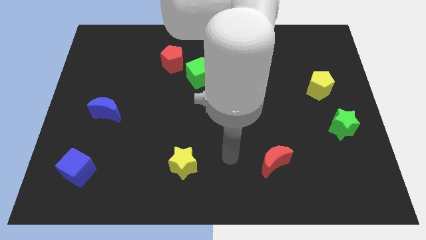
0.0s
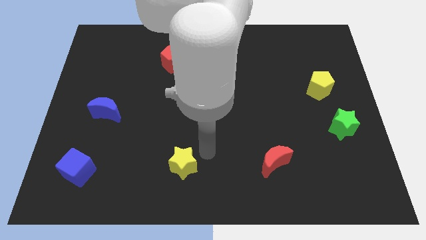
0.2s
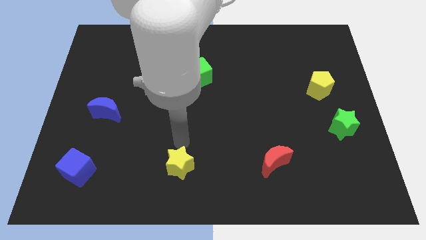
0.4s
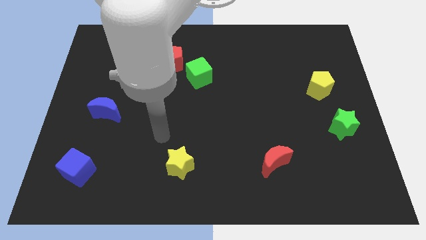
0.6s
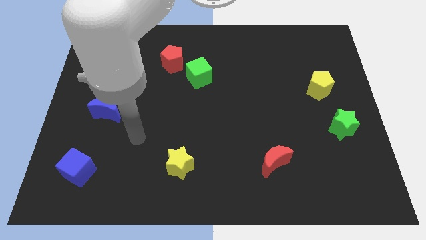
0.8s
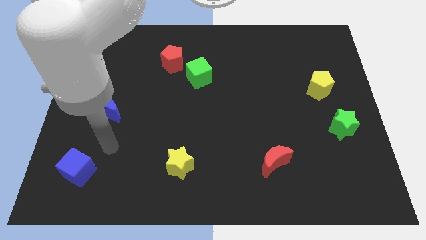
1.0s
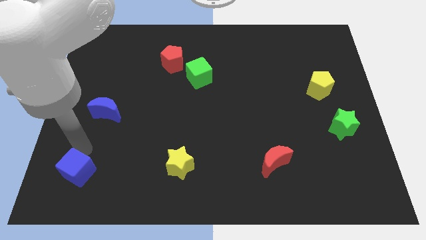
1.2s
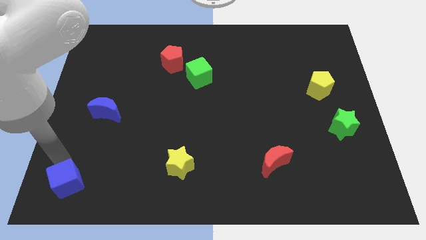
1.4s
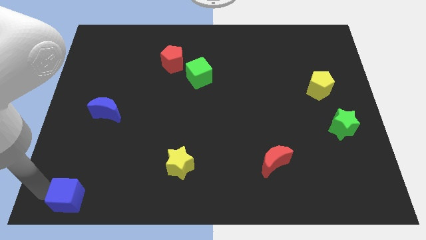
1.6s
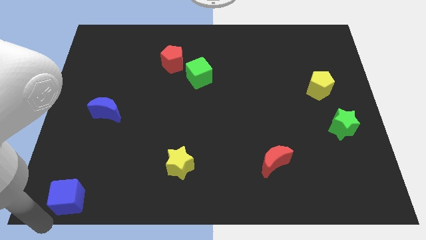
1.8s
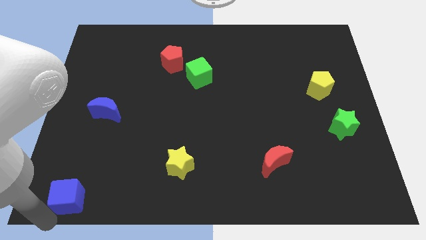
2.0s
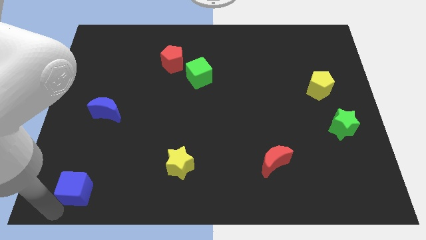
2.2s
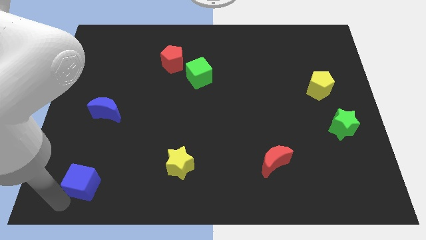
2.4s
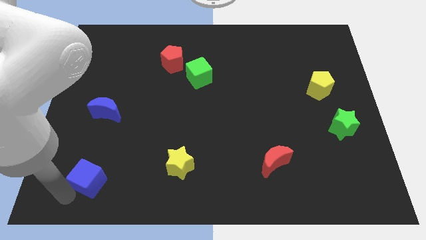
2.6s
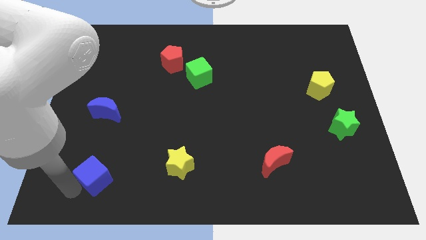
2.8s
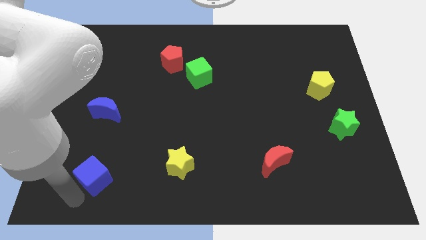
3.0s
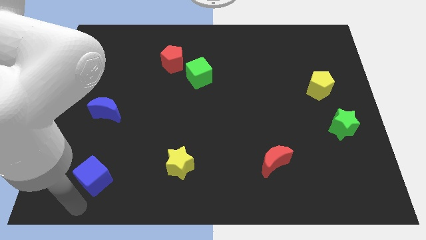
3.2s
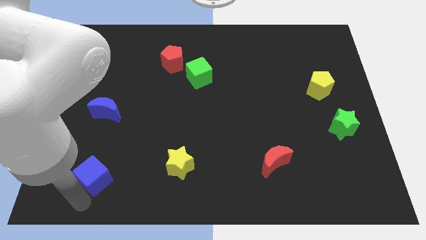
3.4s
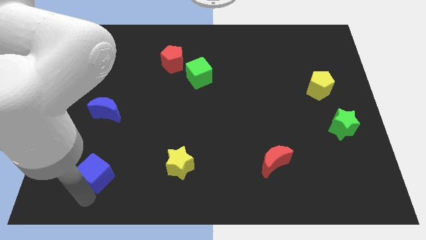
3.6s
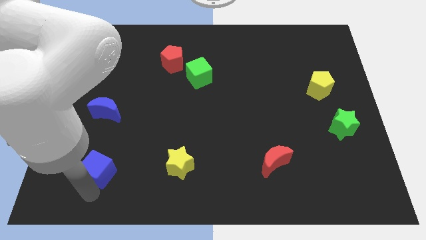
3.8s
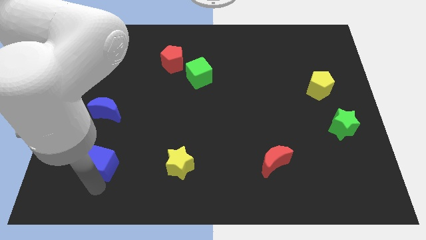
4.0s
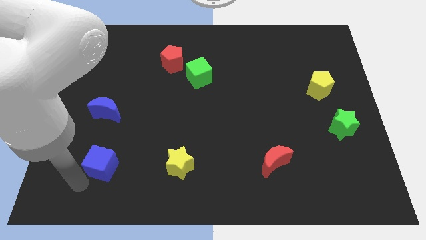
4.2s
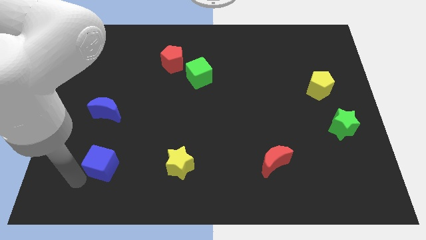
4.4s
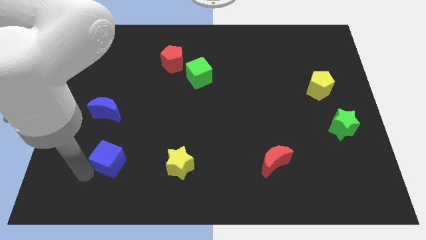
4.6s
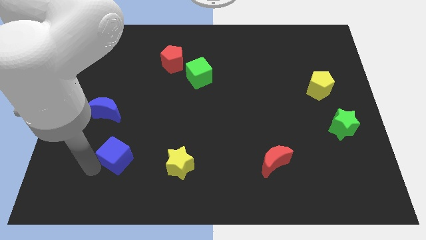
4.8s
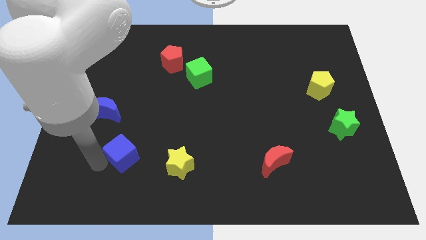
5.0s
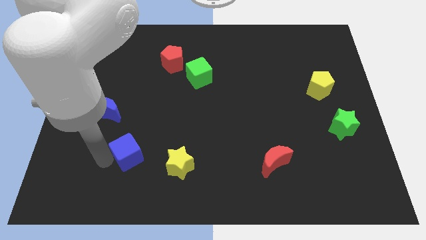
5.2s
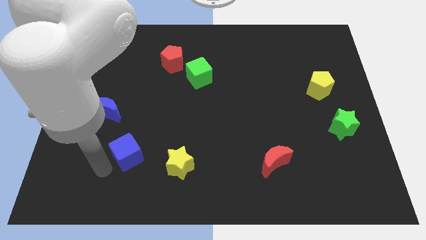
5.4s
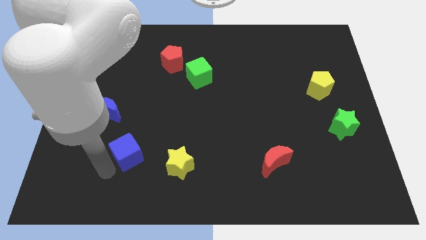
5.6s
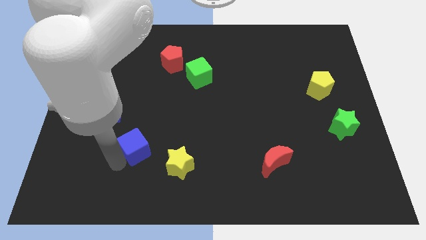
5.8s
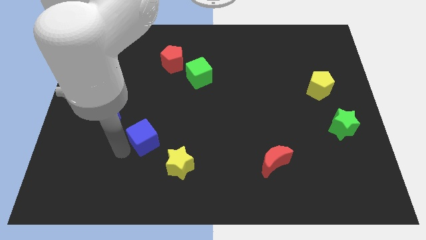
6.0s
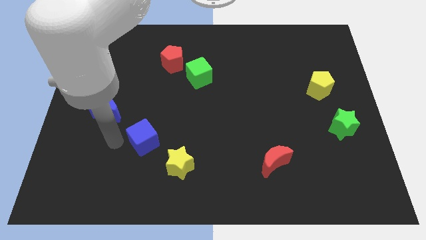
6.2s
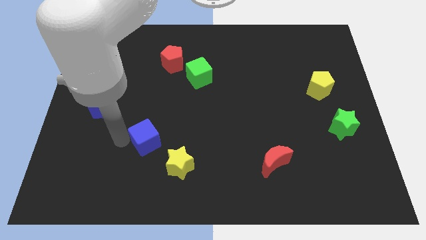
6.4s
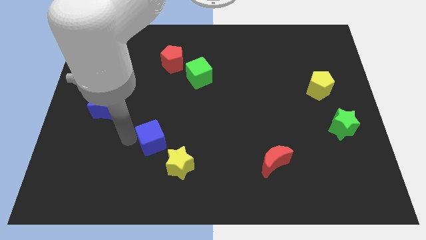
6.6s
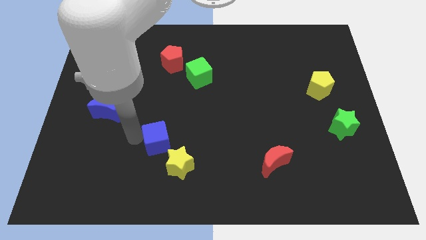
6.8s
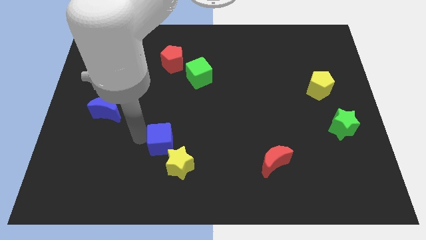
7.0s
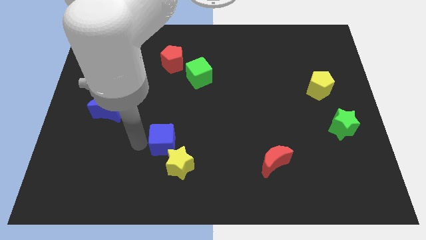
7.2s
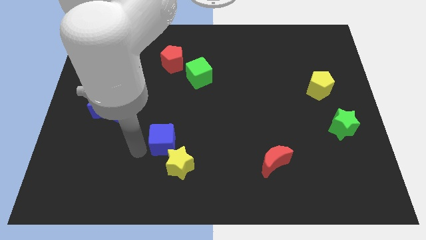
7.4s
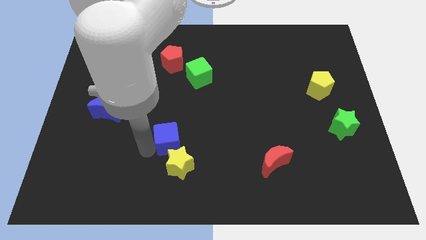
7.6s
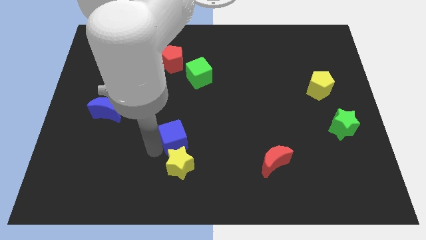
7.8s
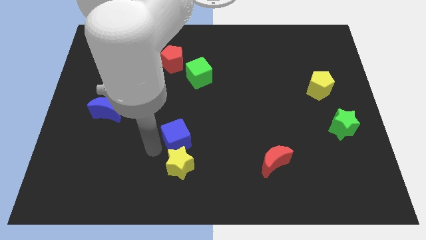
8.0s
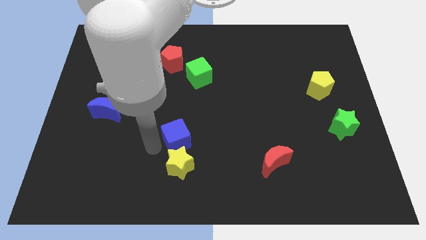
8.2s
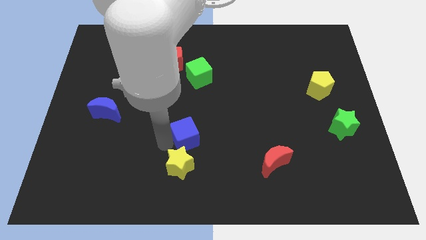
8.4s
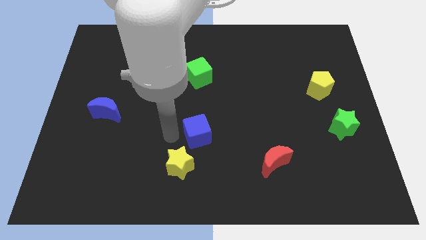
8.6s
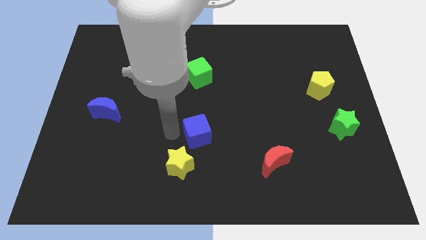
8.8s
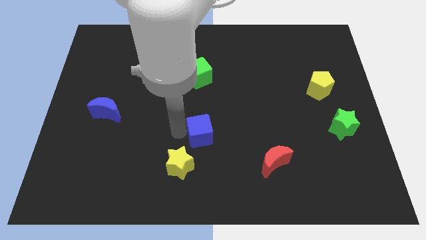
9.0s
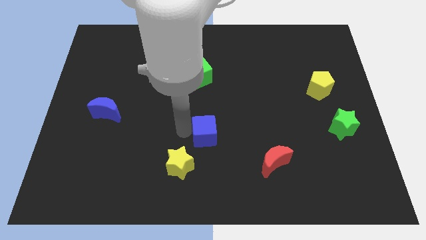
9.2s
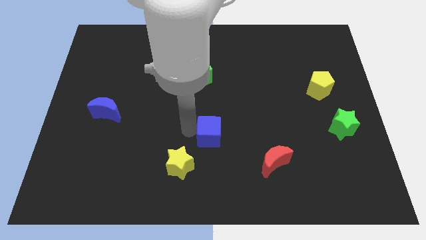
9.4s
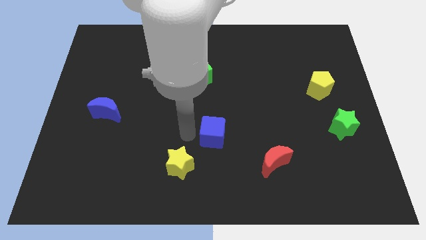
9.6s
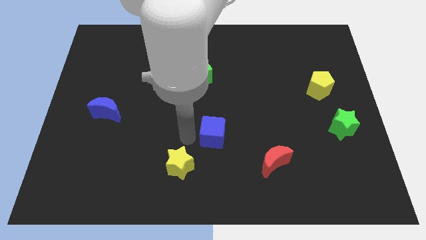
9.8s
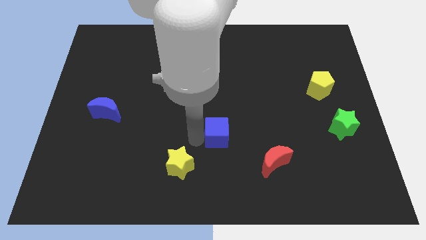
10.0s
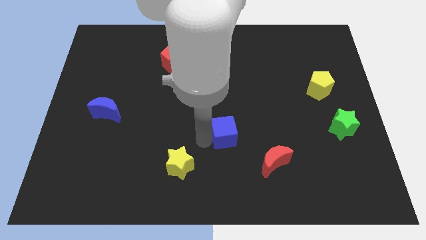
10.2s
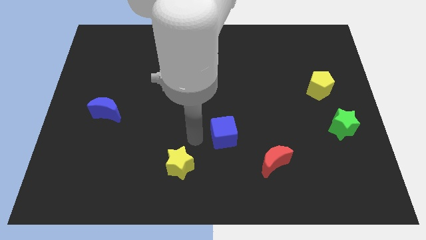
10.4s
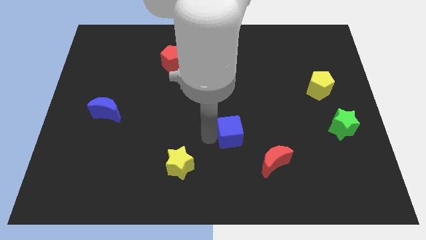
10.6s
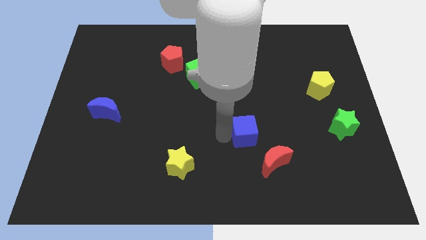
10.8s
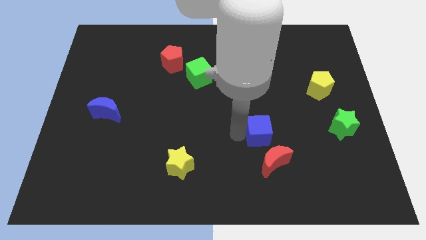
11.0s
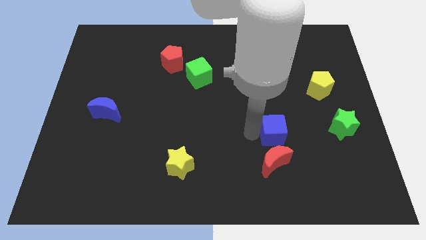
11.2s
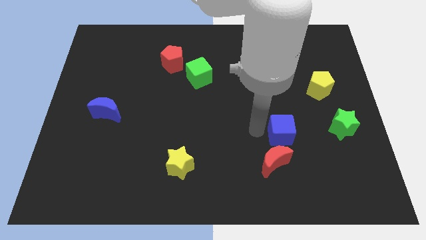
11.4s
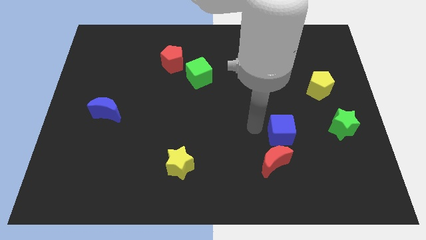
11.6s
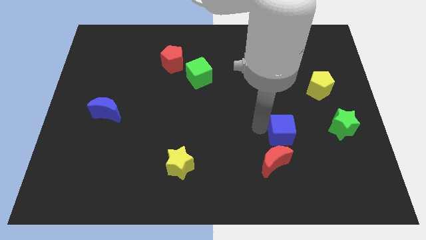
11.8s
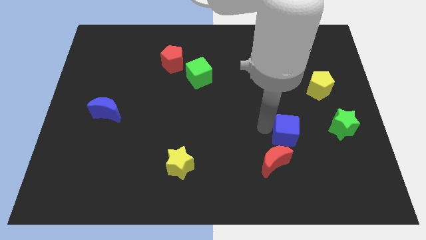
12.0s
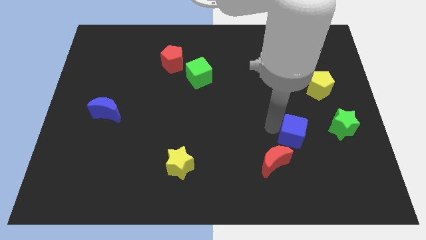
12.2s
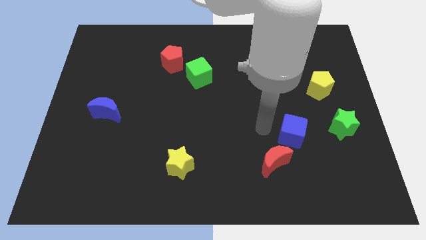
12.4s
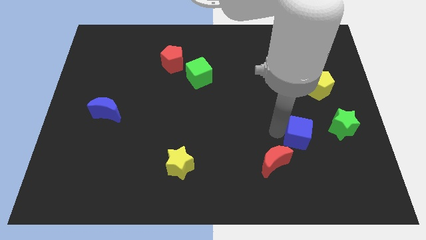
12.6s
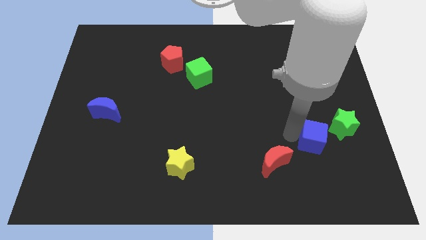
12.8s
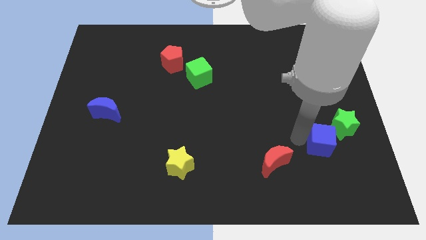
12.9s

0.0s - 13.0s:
push the blue cube to the bottom of the yellow pentagon
